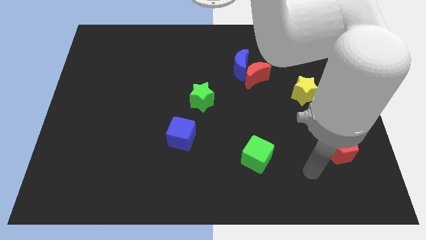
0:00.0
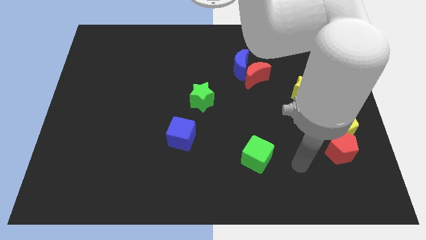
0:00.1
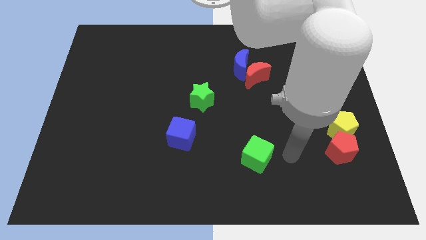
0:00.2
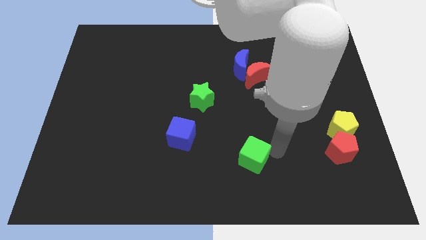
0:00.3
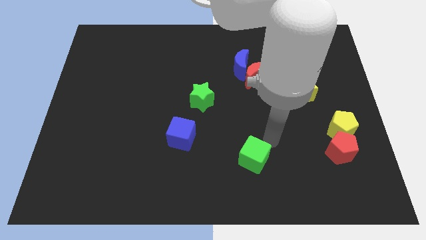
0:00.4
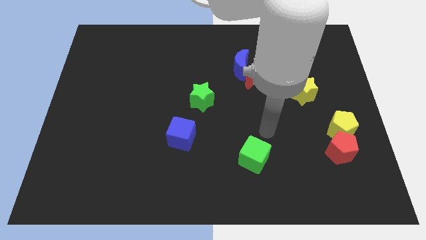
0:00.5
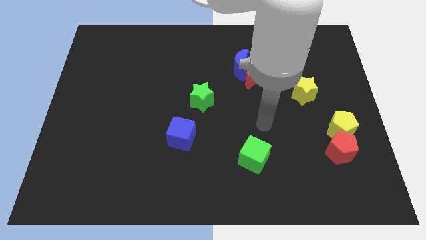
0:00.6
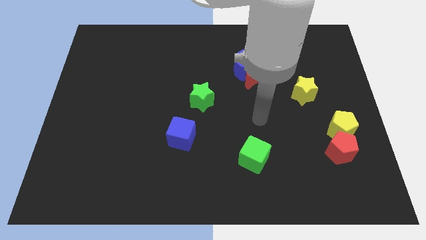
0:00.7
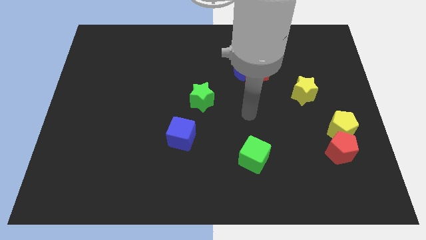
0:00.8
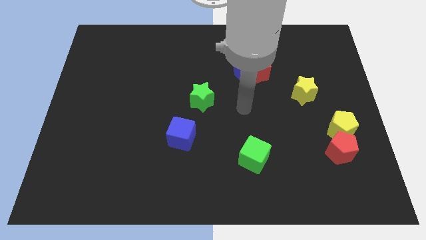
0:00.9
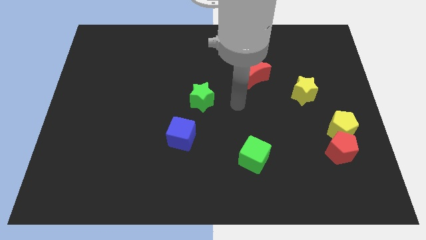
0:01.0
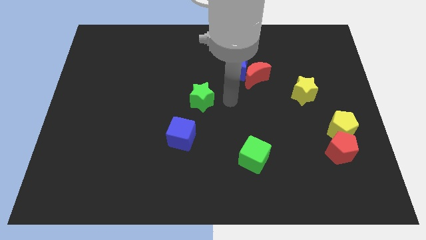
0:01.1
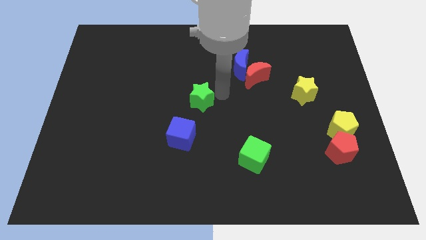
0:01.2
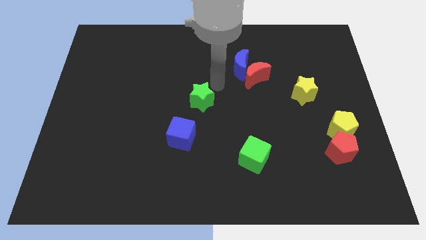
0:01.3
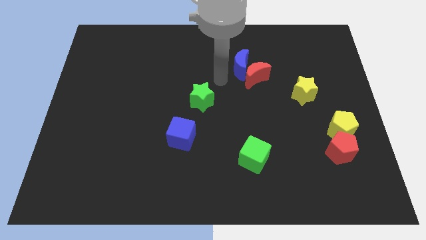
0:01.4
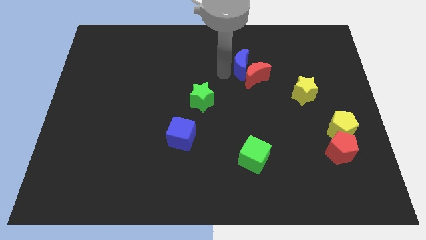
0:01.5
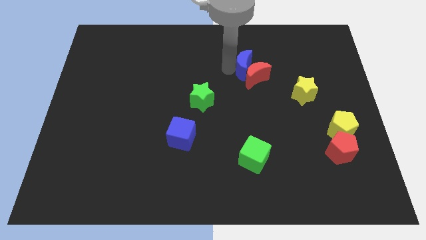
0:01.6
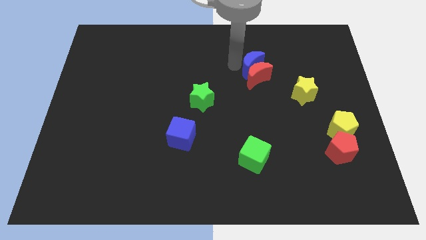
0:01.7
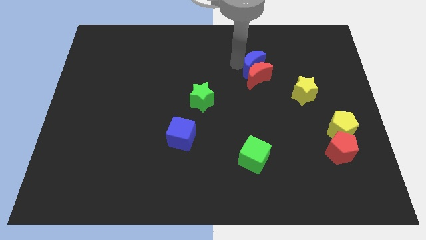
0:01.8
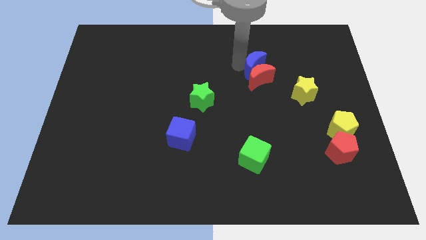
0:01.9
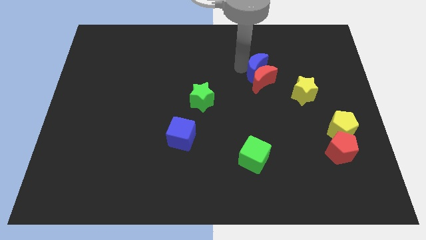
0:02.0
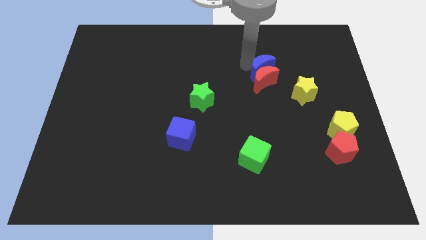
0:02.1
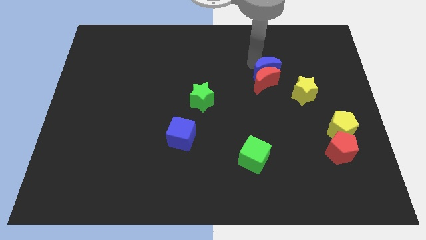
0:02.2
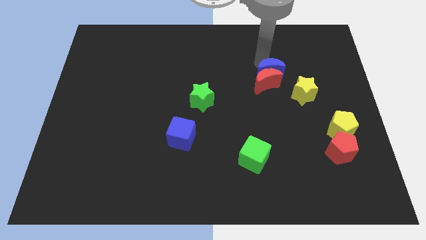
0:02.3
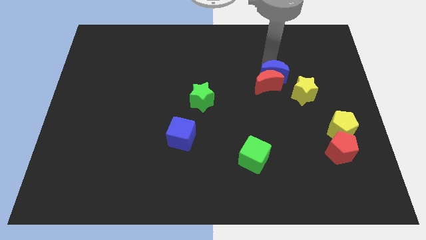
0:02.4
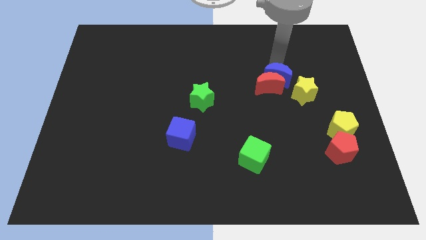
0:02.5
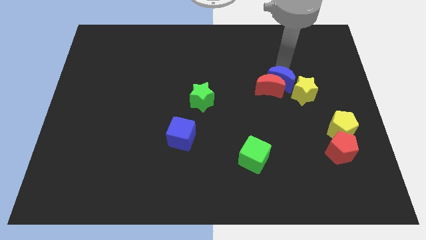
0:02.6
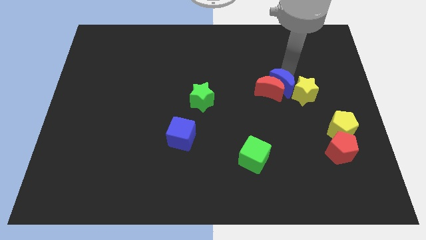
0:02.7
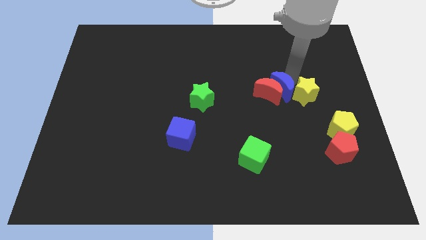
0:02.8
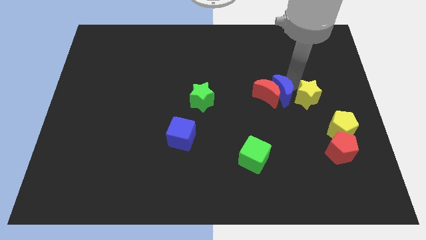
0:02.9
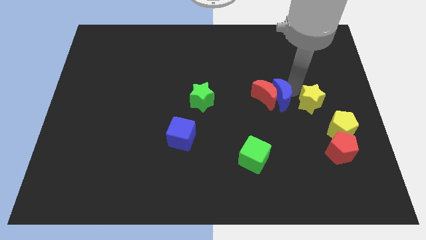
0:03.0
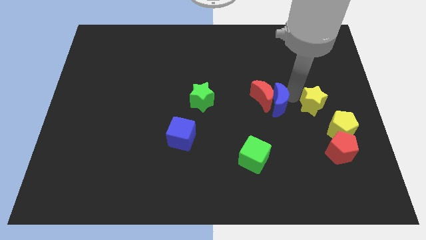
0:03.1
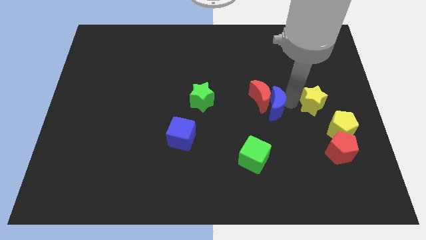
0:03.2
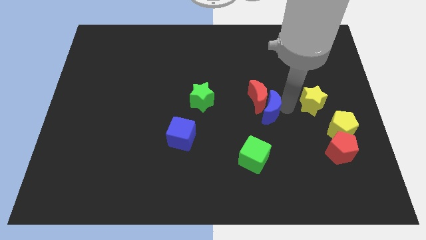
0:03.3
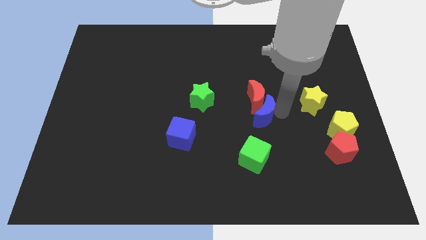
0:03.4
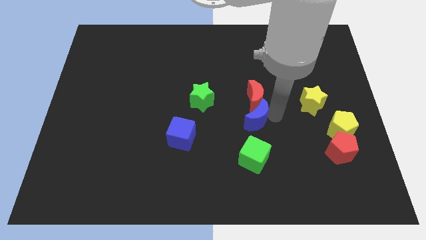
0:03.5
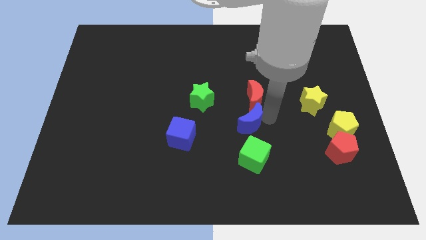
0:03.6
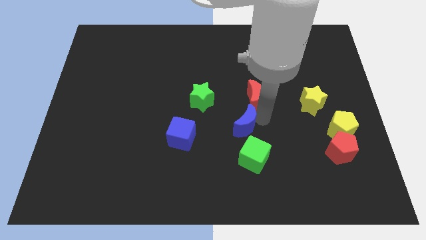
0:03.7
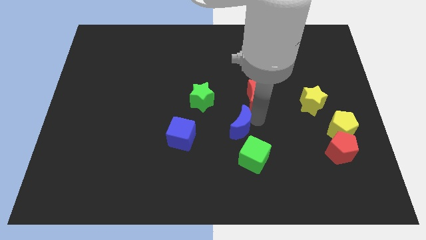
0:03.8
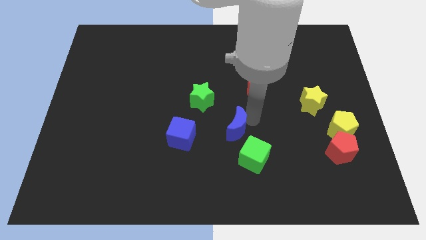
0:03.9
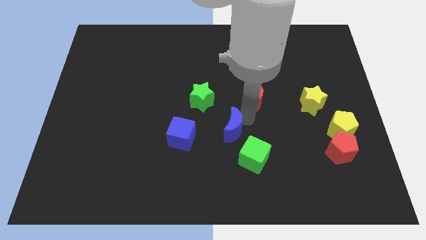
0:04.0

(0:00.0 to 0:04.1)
move the red moon away from the blue moon

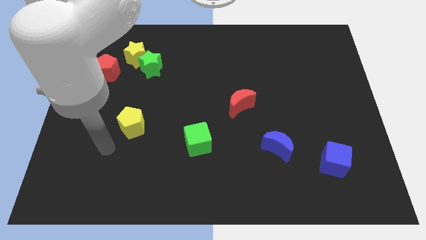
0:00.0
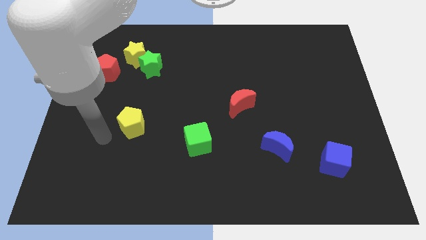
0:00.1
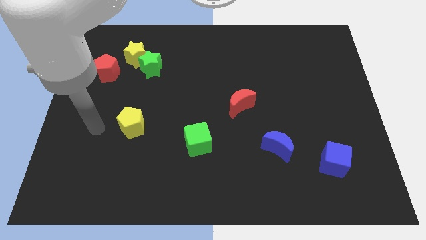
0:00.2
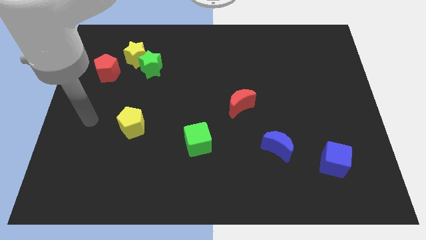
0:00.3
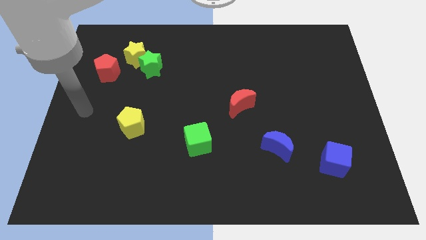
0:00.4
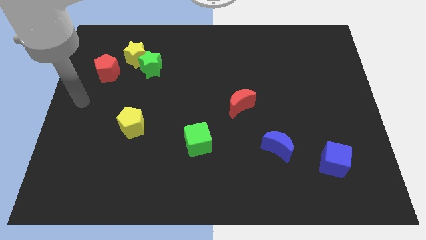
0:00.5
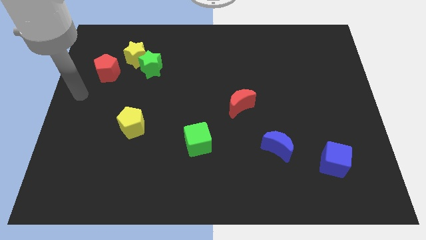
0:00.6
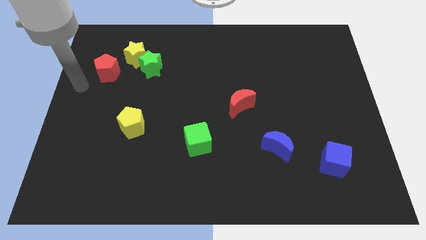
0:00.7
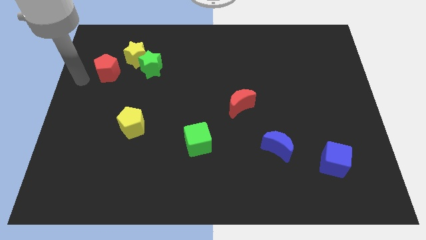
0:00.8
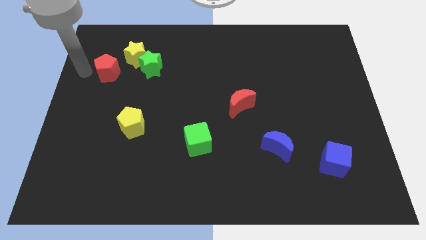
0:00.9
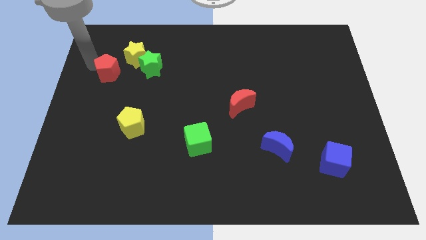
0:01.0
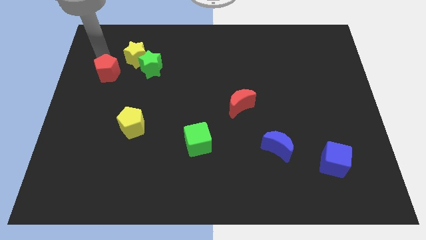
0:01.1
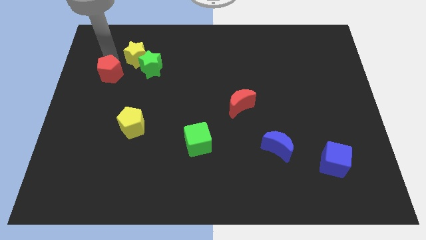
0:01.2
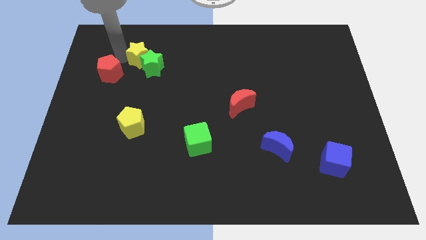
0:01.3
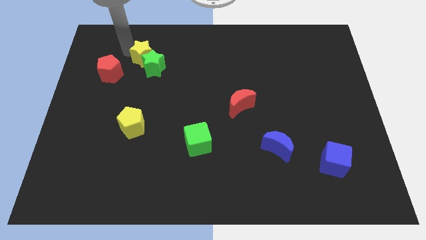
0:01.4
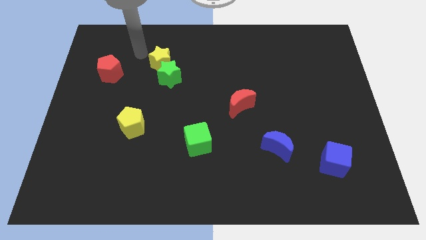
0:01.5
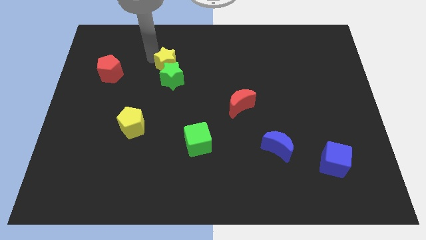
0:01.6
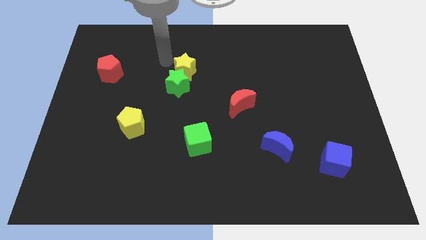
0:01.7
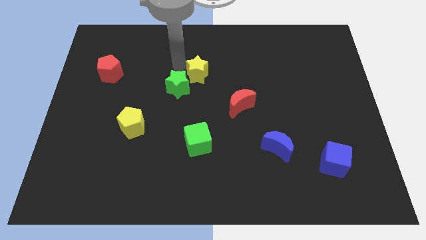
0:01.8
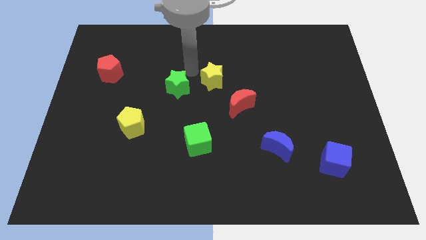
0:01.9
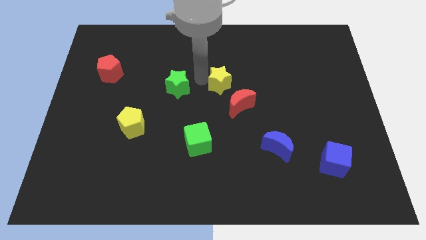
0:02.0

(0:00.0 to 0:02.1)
pull the green star apart from the yellow star

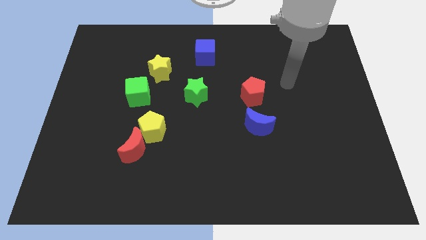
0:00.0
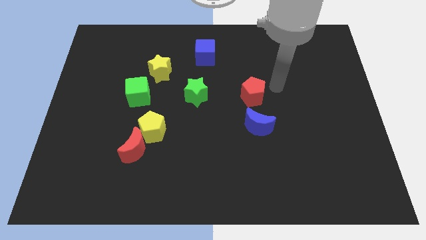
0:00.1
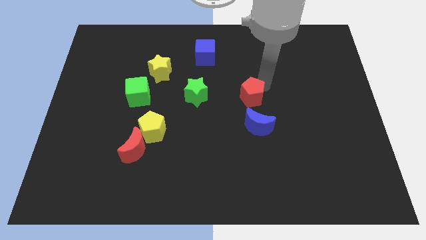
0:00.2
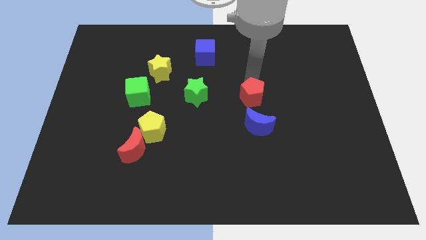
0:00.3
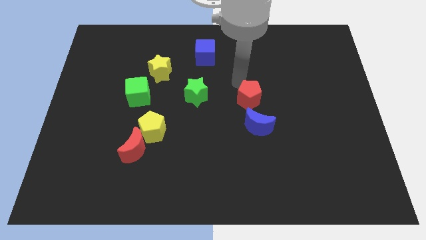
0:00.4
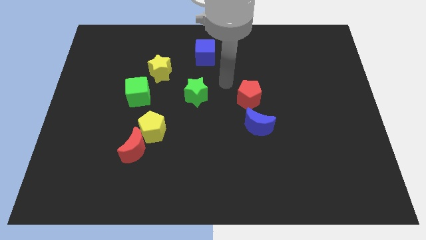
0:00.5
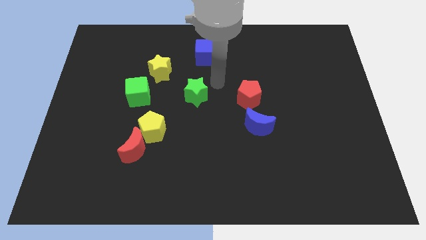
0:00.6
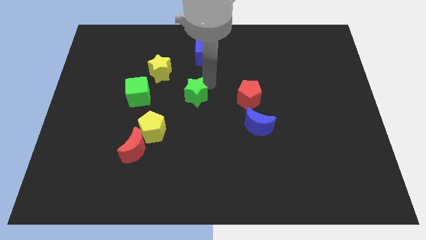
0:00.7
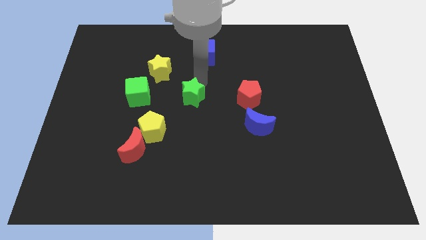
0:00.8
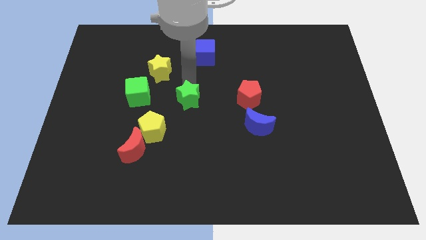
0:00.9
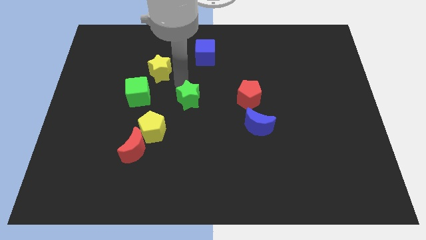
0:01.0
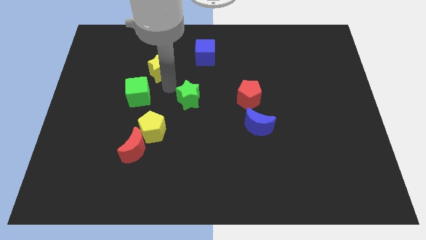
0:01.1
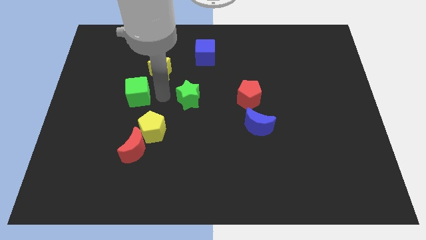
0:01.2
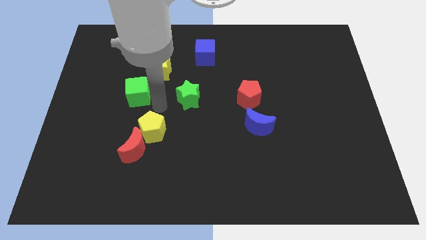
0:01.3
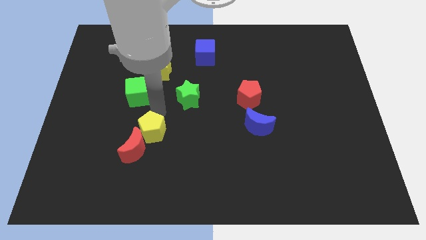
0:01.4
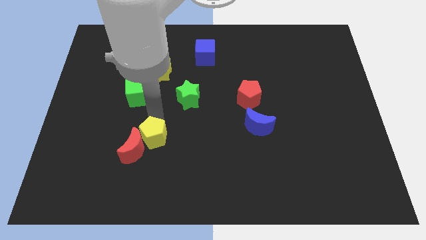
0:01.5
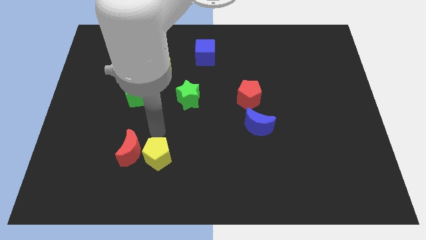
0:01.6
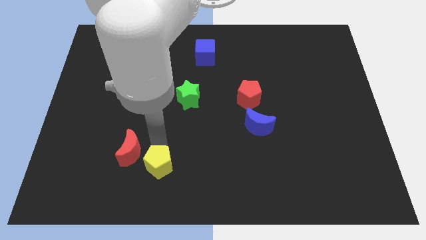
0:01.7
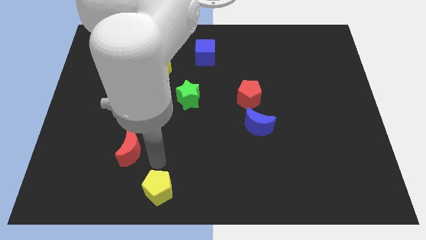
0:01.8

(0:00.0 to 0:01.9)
separate the red moon from the yellow pentagon

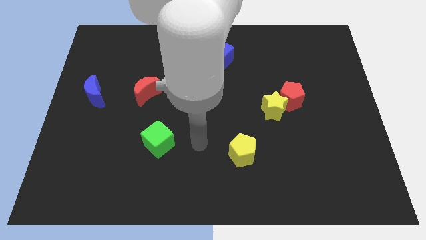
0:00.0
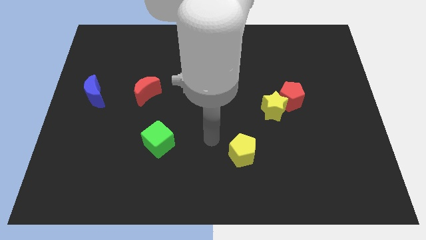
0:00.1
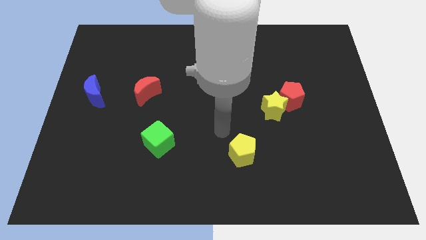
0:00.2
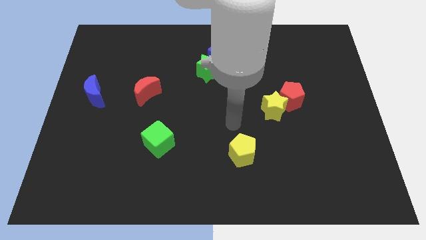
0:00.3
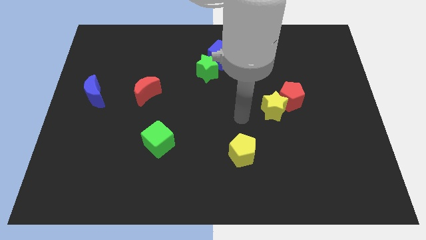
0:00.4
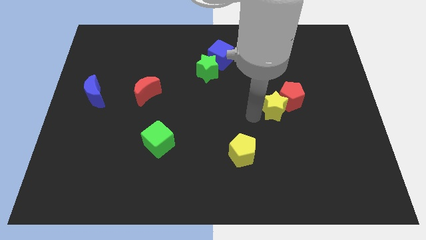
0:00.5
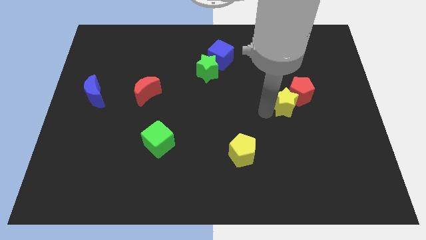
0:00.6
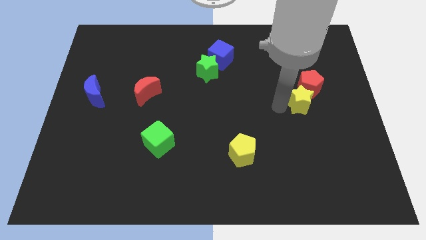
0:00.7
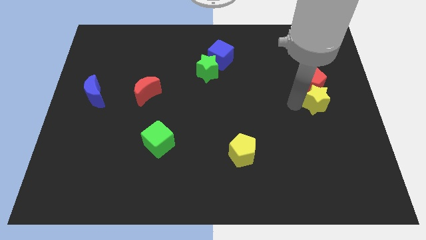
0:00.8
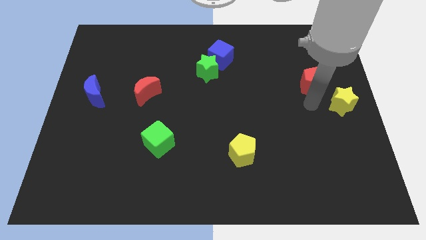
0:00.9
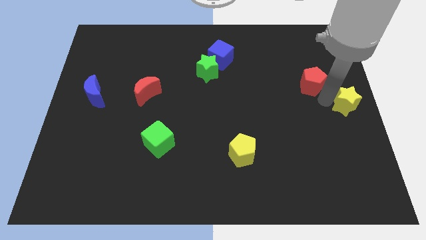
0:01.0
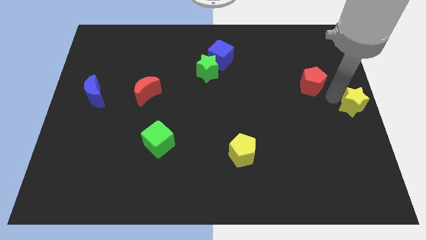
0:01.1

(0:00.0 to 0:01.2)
separate the red pentagon from the yellow star

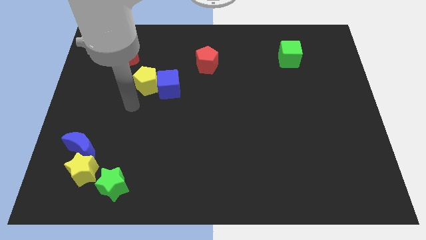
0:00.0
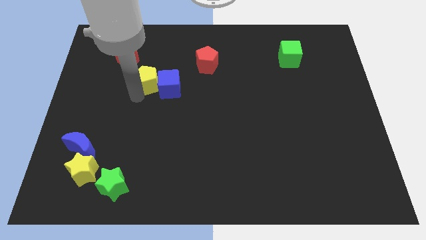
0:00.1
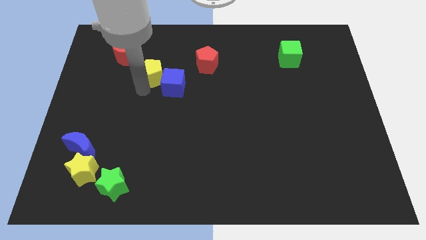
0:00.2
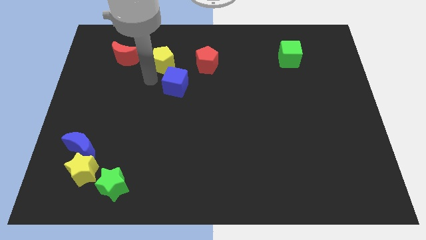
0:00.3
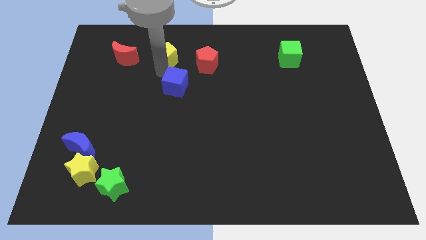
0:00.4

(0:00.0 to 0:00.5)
pull the blue cube apart from the yellow pentagon
